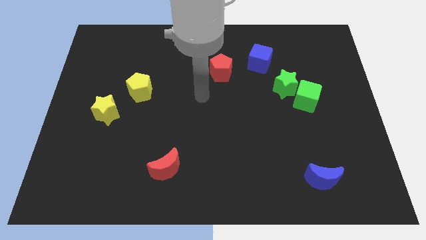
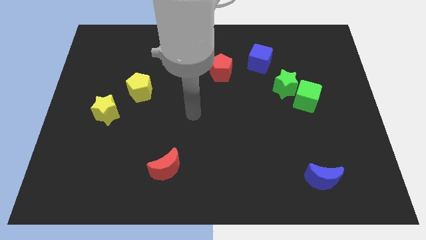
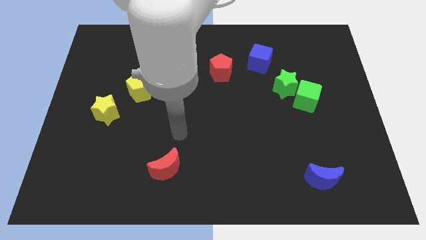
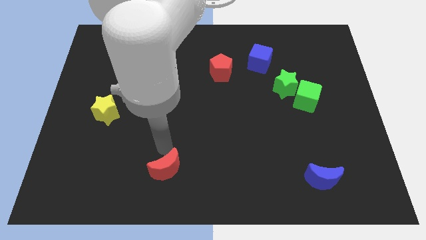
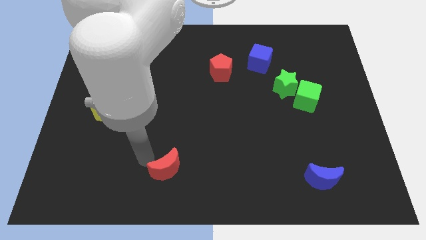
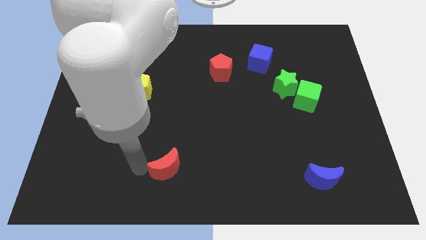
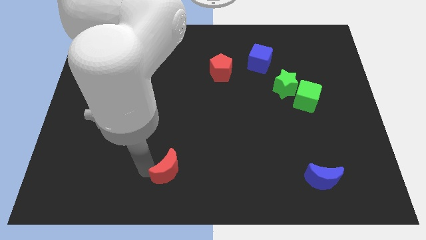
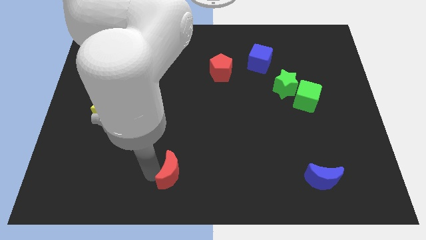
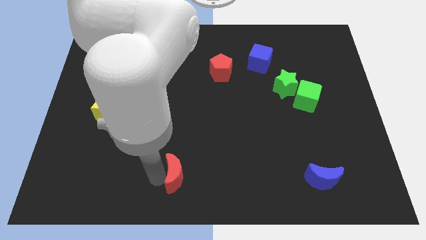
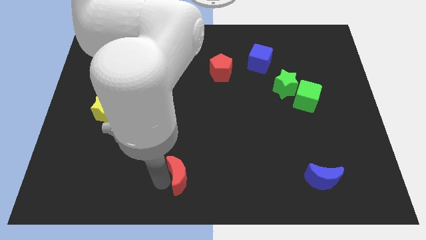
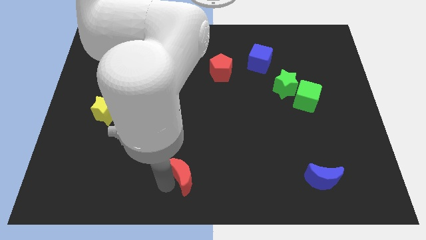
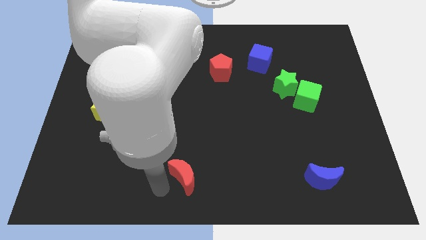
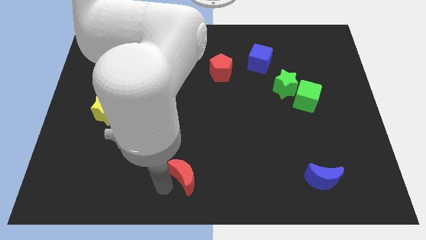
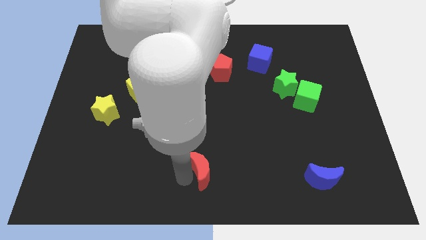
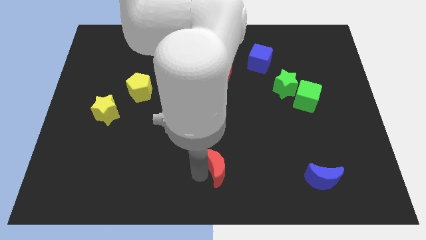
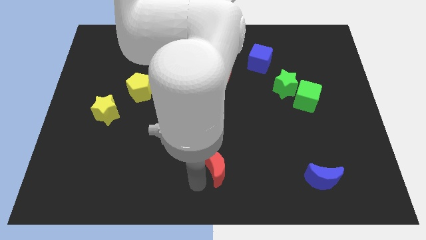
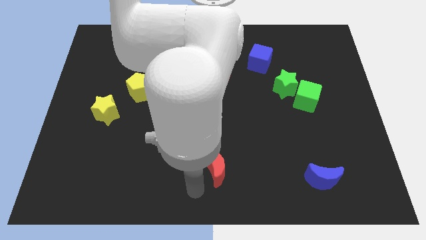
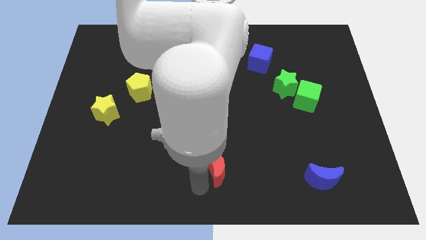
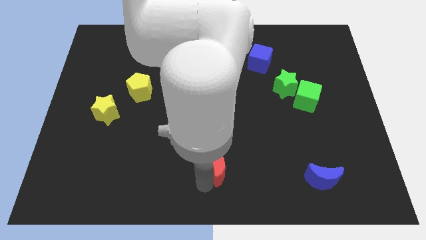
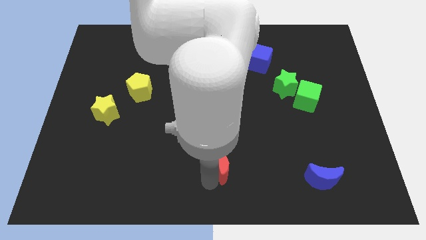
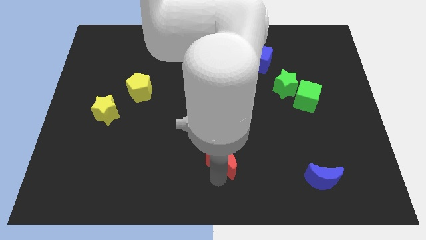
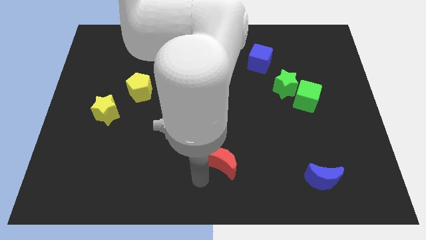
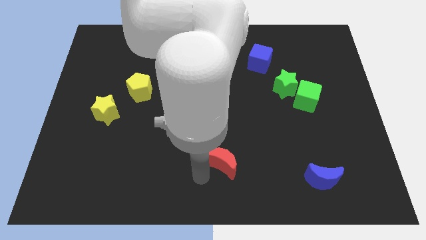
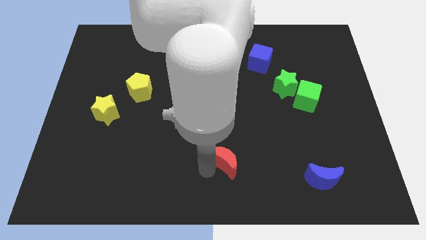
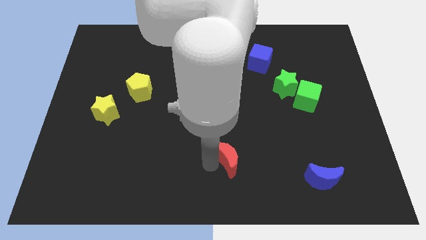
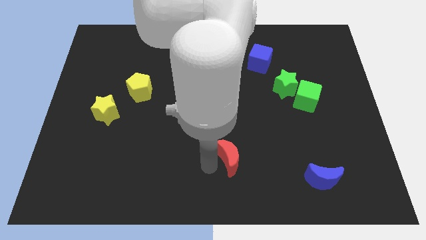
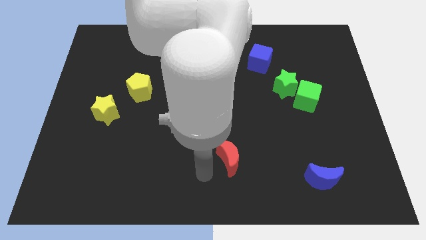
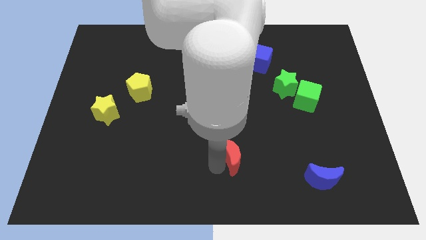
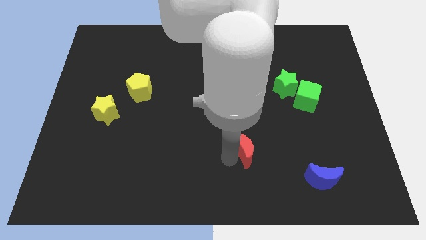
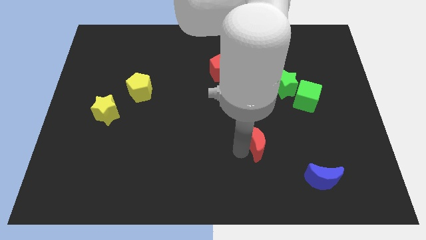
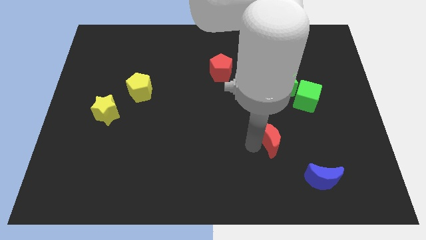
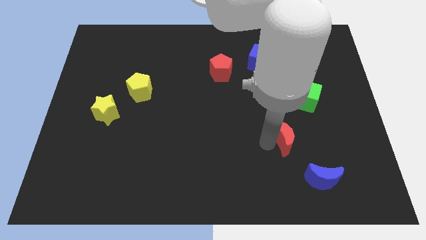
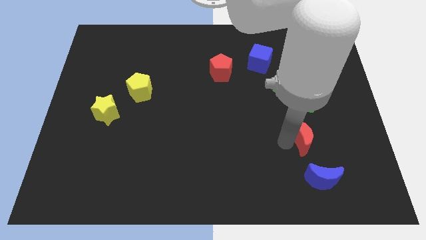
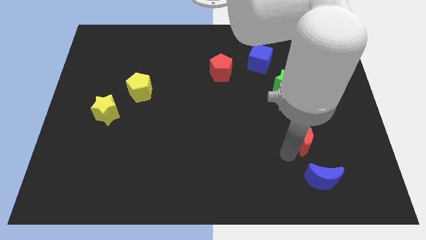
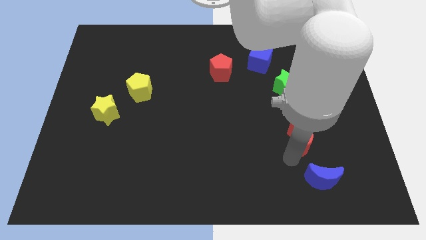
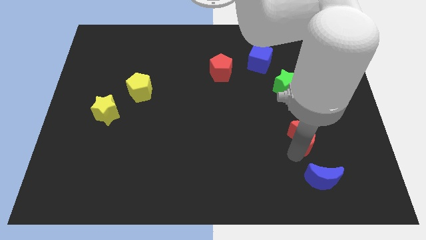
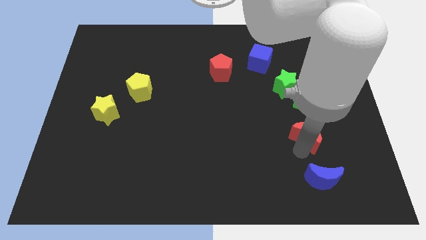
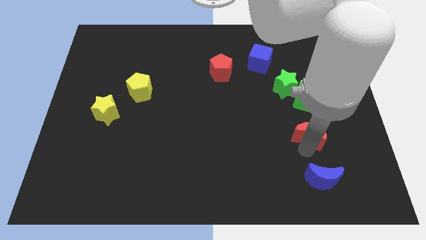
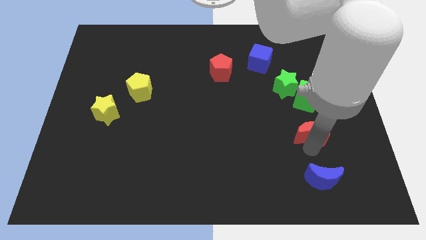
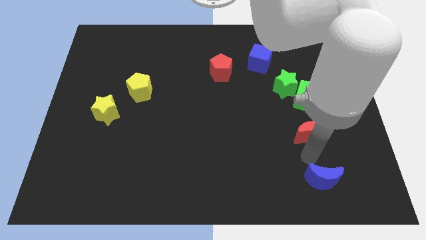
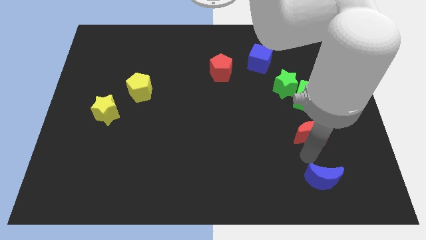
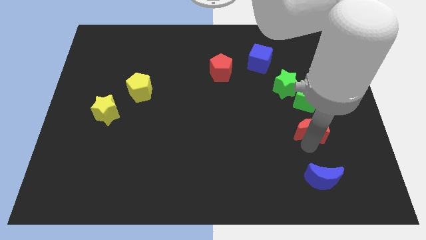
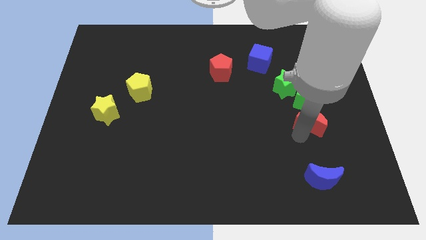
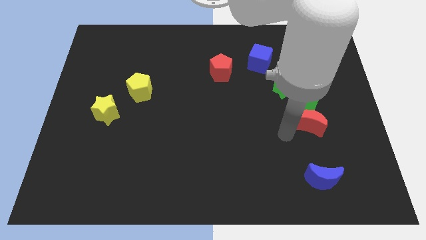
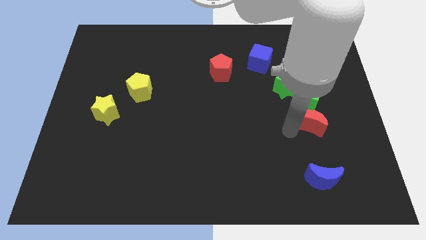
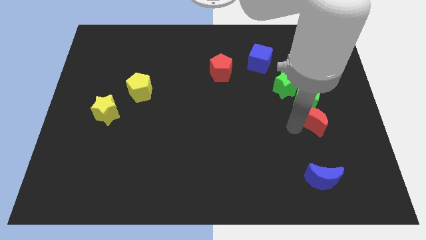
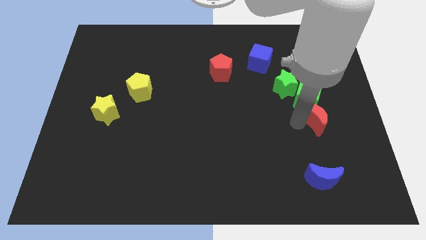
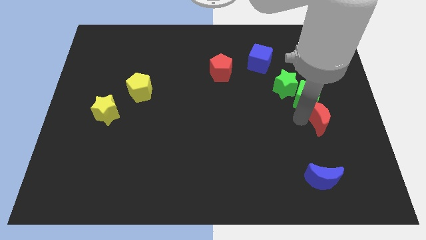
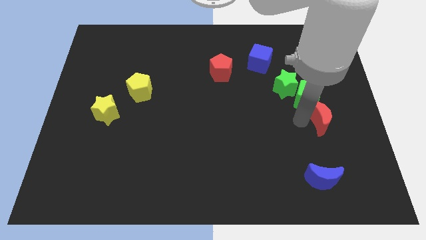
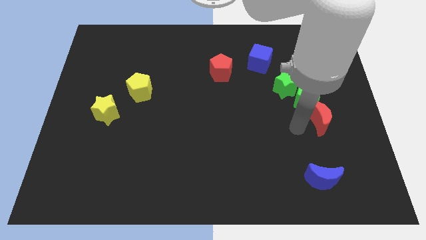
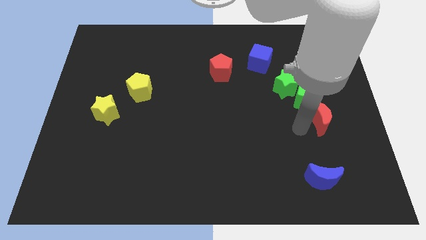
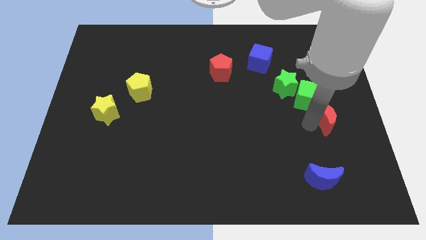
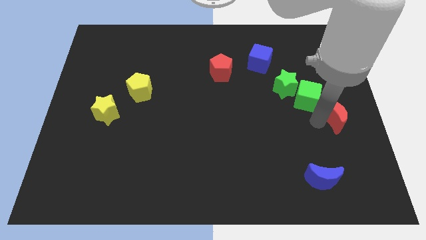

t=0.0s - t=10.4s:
push the red moon to the right side of the board
